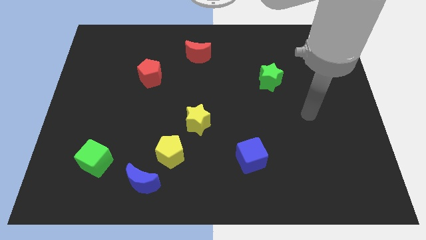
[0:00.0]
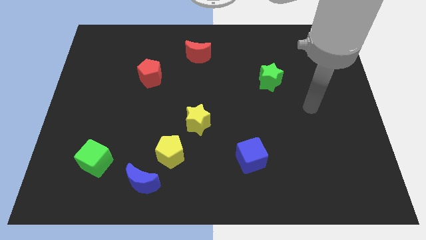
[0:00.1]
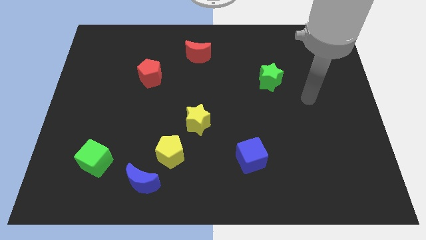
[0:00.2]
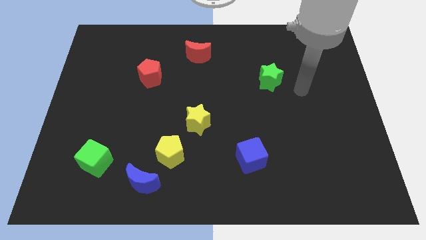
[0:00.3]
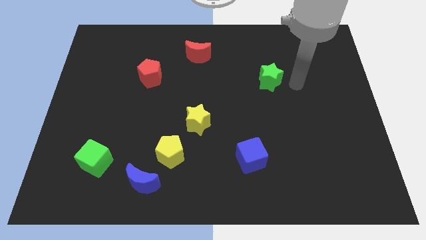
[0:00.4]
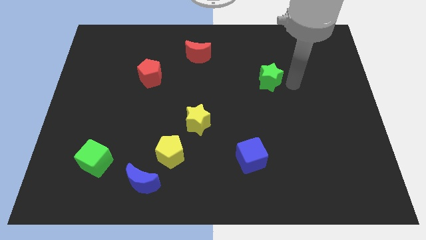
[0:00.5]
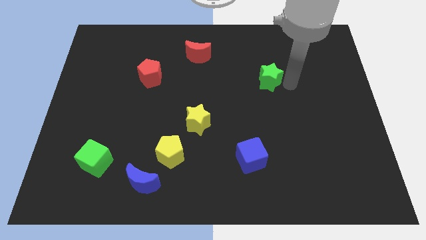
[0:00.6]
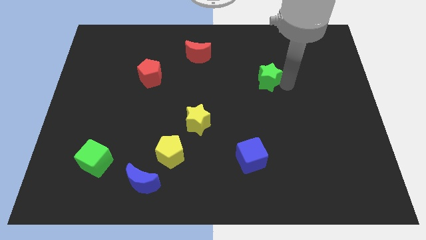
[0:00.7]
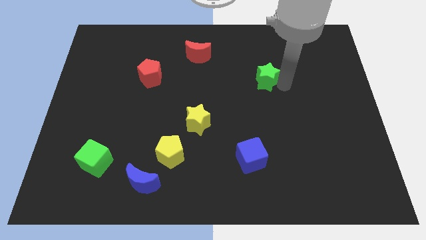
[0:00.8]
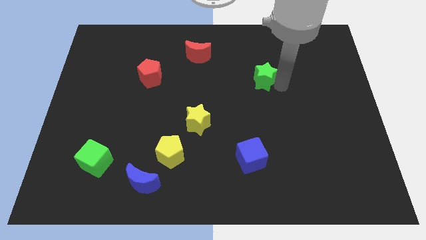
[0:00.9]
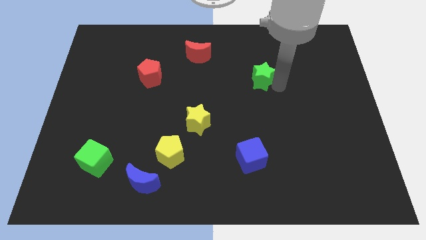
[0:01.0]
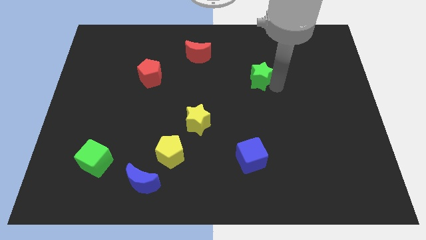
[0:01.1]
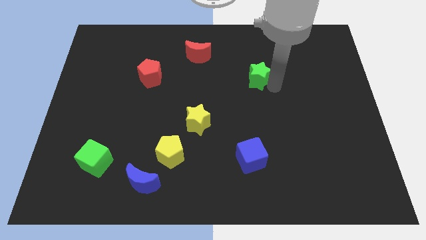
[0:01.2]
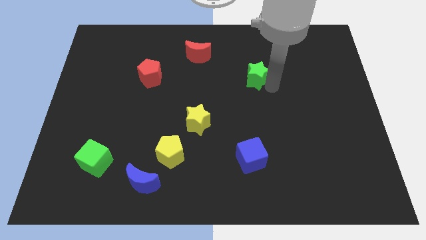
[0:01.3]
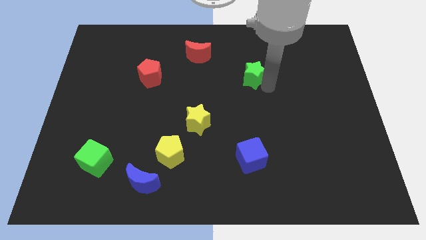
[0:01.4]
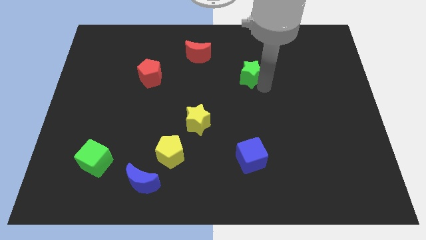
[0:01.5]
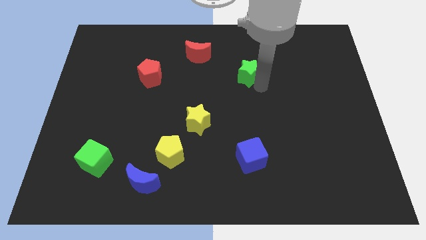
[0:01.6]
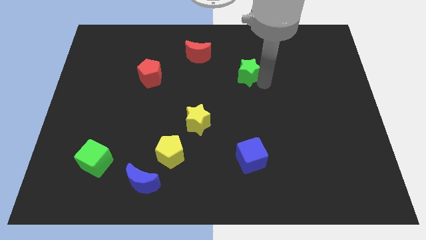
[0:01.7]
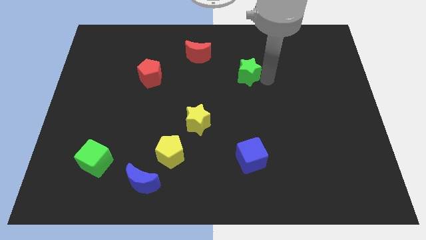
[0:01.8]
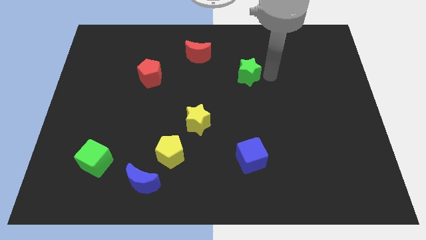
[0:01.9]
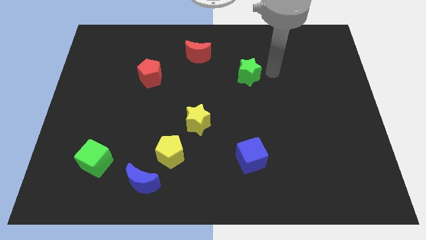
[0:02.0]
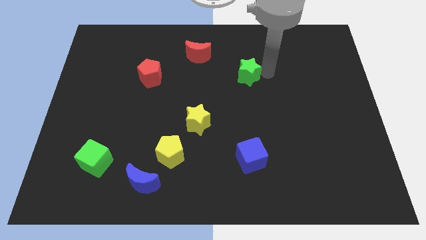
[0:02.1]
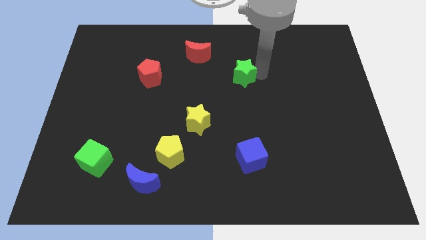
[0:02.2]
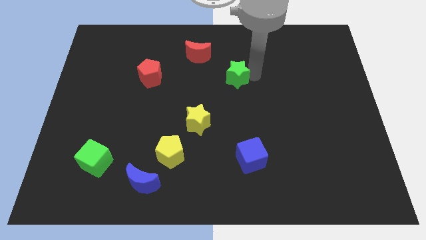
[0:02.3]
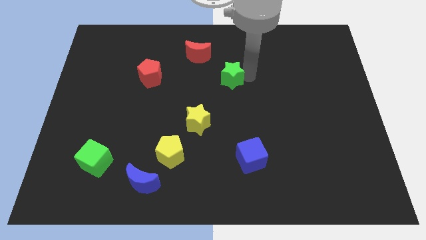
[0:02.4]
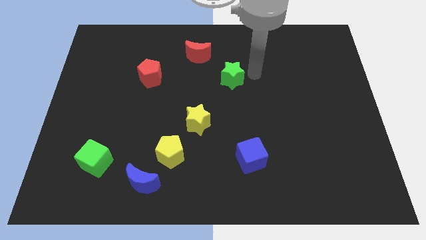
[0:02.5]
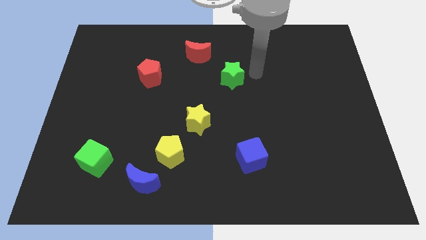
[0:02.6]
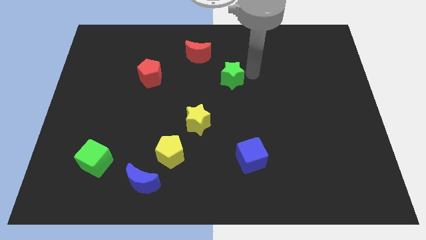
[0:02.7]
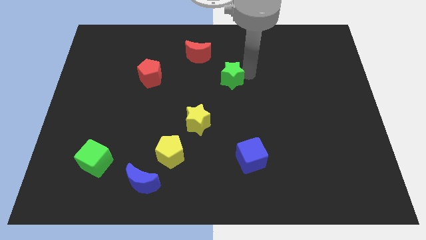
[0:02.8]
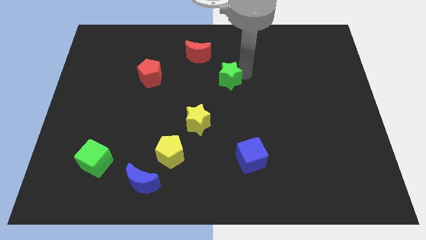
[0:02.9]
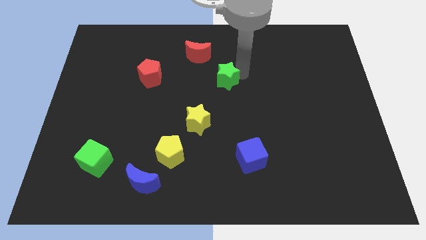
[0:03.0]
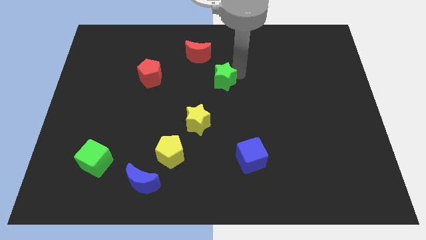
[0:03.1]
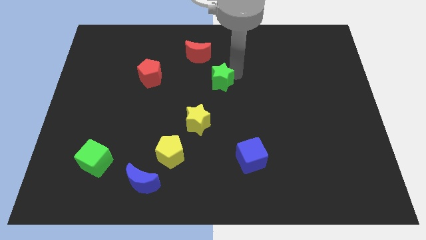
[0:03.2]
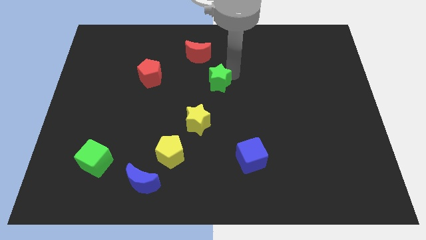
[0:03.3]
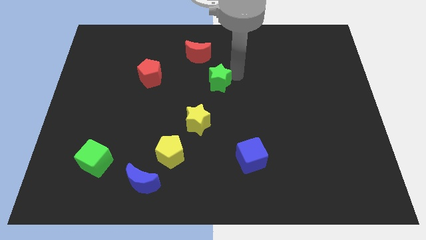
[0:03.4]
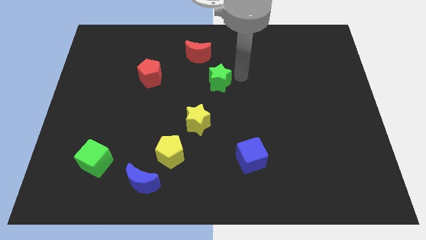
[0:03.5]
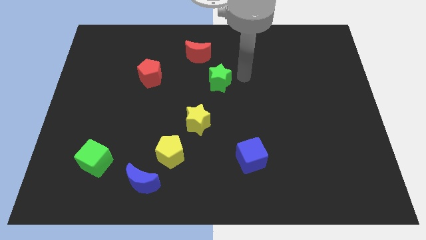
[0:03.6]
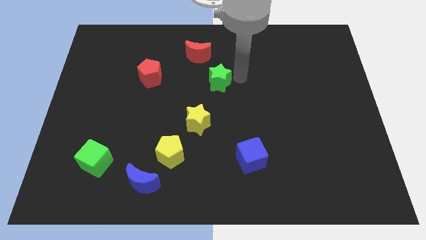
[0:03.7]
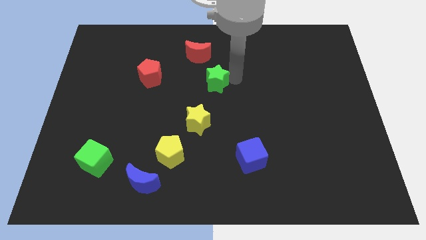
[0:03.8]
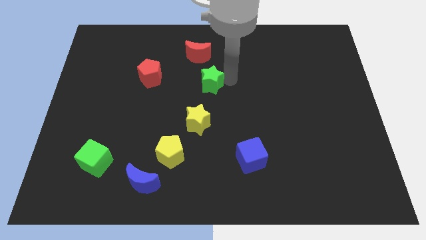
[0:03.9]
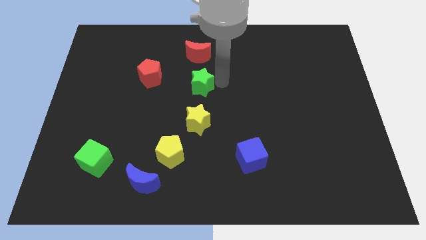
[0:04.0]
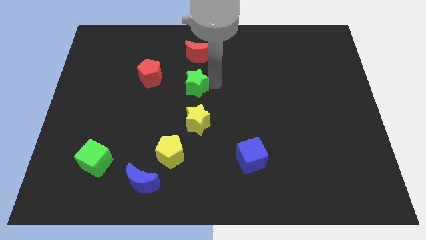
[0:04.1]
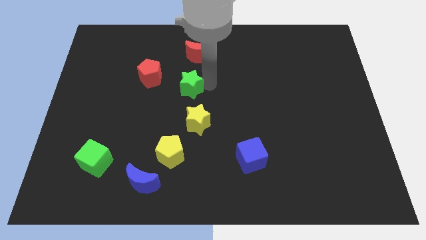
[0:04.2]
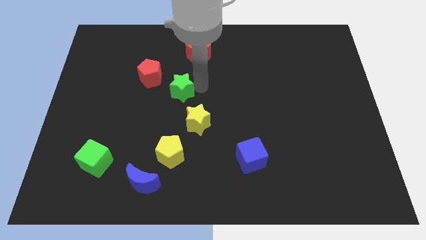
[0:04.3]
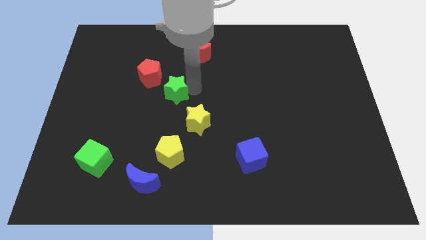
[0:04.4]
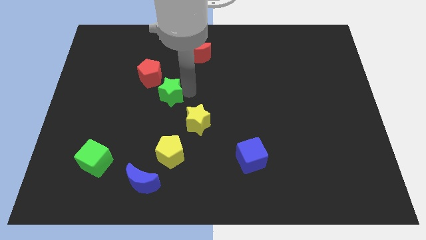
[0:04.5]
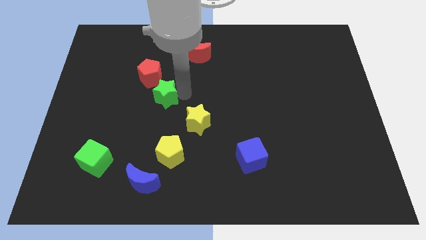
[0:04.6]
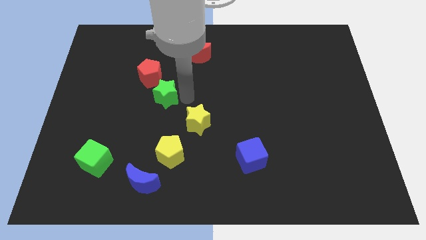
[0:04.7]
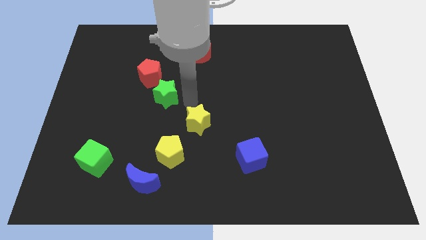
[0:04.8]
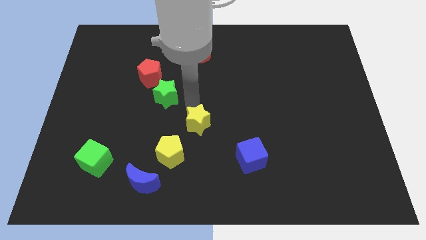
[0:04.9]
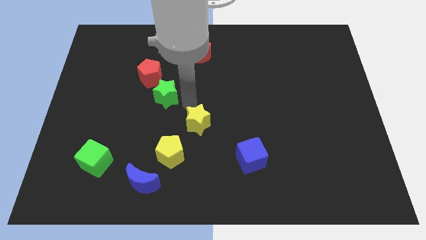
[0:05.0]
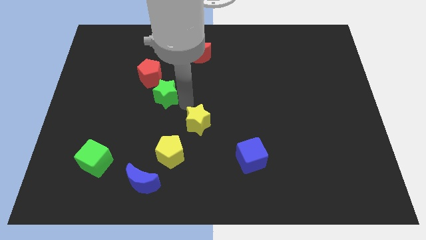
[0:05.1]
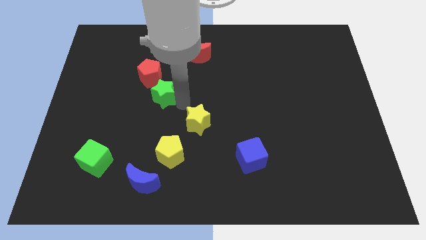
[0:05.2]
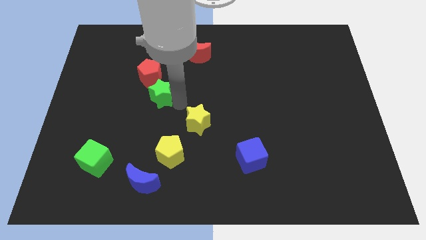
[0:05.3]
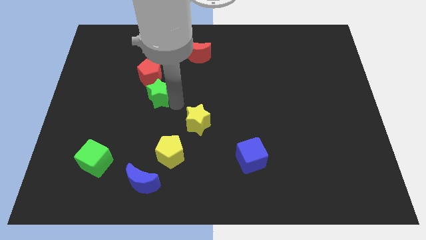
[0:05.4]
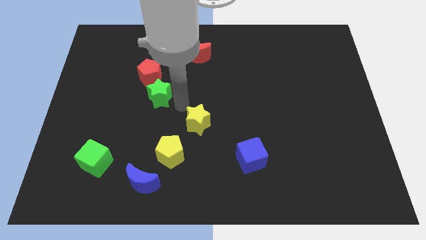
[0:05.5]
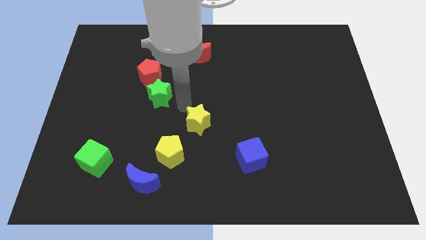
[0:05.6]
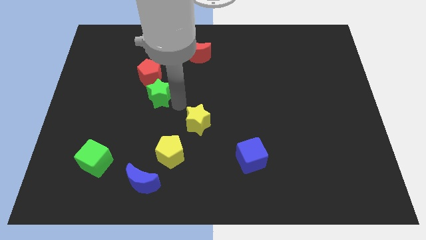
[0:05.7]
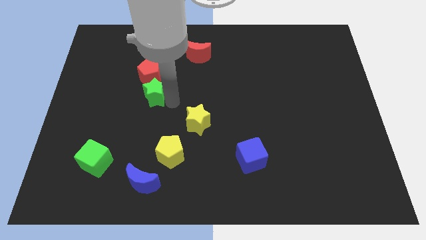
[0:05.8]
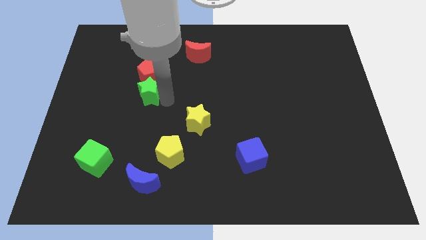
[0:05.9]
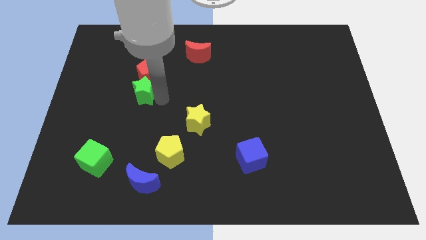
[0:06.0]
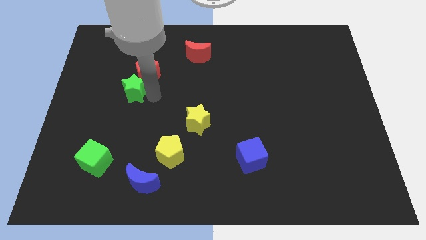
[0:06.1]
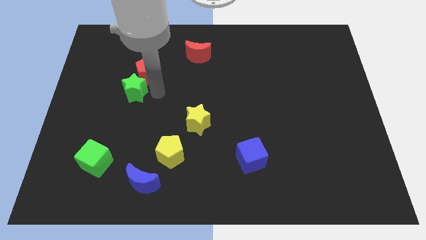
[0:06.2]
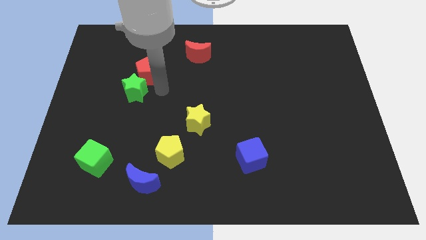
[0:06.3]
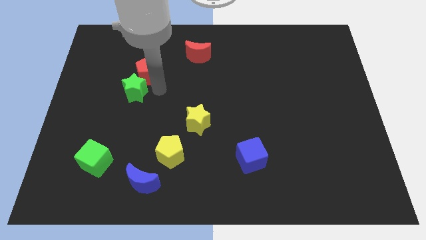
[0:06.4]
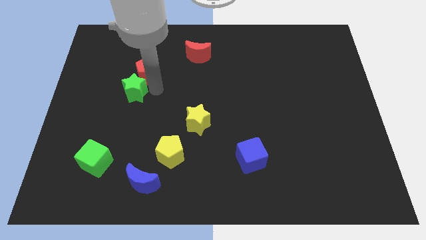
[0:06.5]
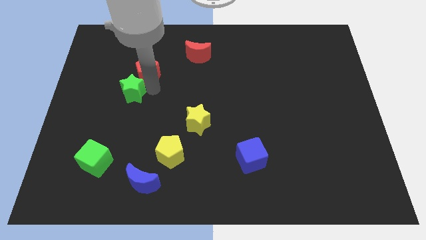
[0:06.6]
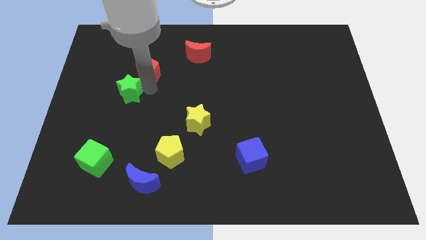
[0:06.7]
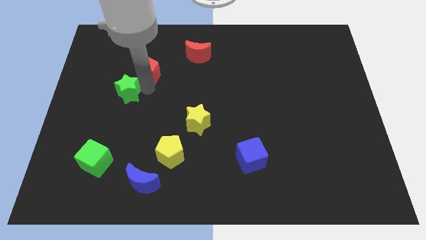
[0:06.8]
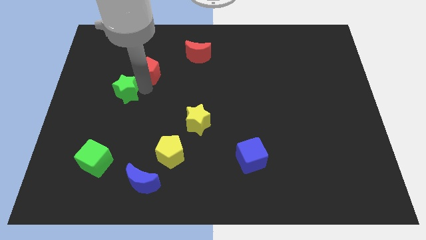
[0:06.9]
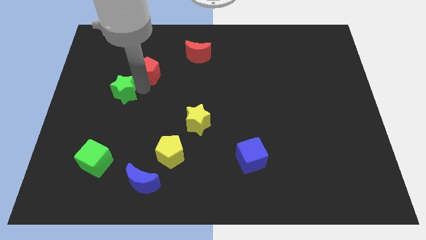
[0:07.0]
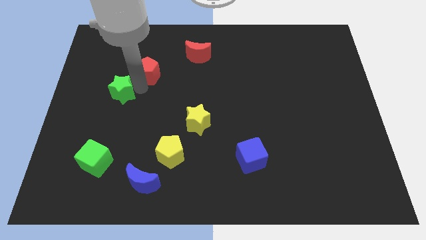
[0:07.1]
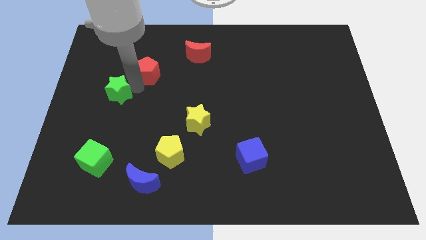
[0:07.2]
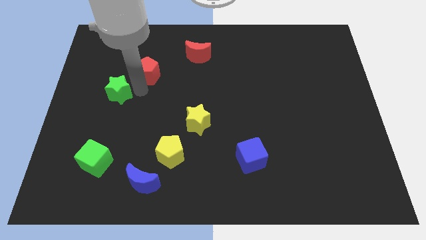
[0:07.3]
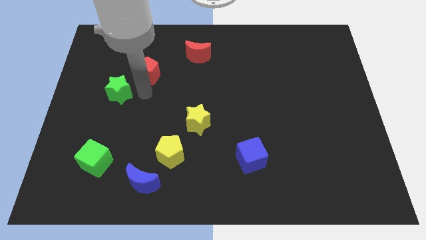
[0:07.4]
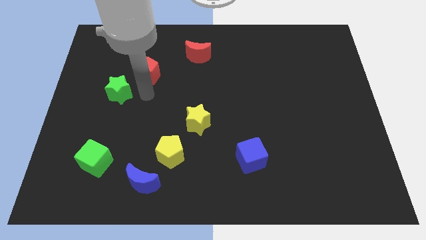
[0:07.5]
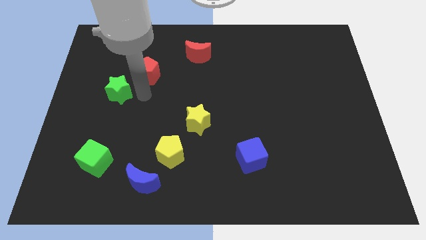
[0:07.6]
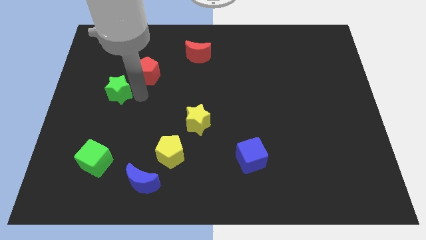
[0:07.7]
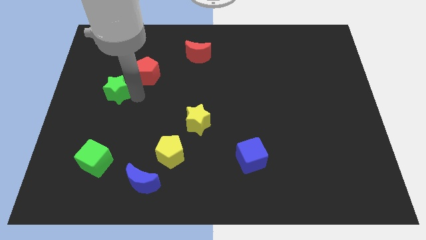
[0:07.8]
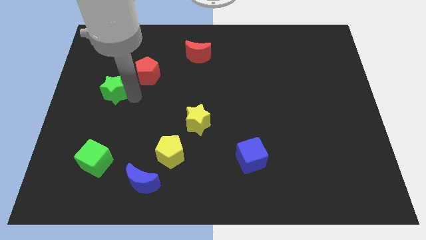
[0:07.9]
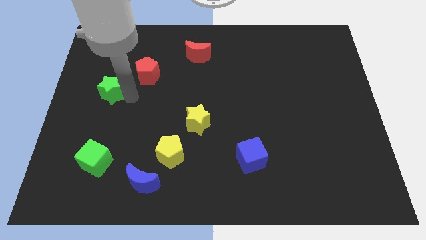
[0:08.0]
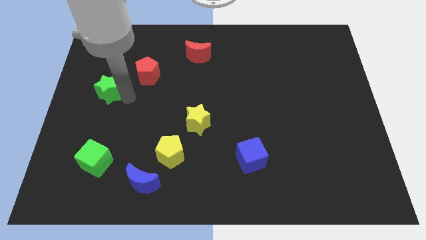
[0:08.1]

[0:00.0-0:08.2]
slide the green star to the center left
